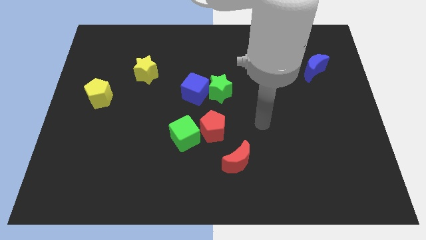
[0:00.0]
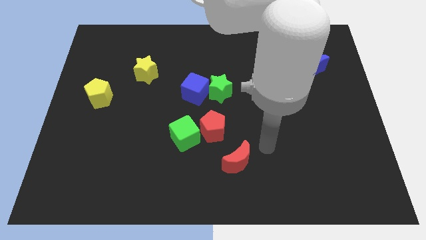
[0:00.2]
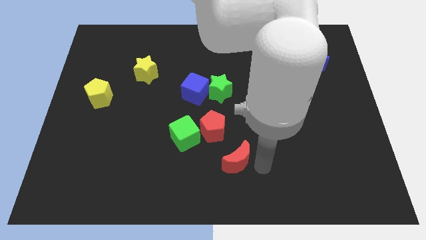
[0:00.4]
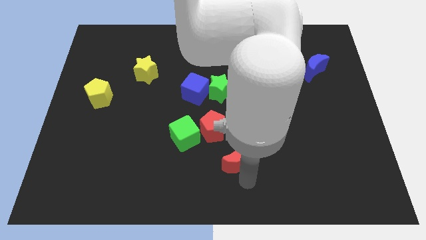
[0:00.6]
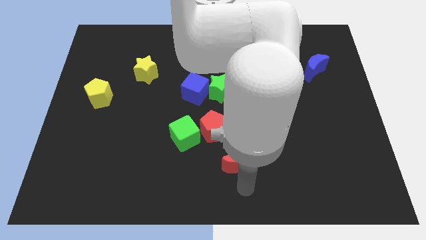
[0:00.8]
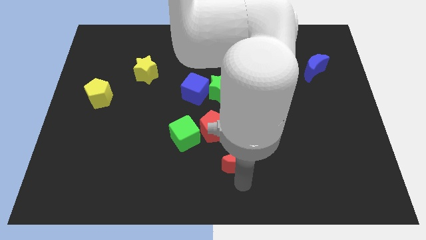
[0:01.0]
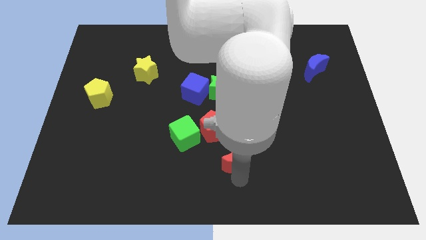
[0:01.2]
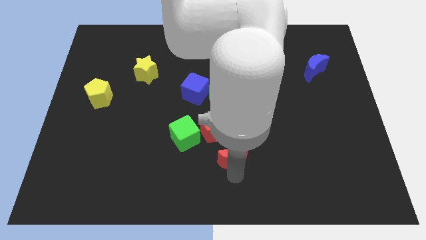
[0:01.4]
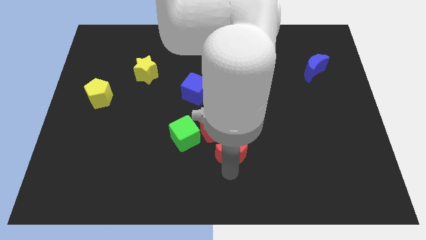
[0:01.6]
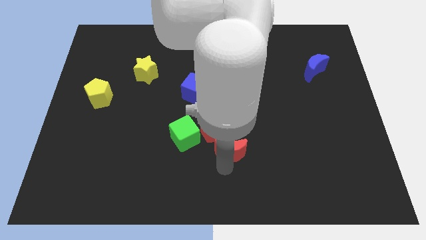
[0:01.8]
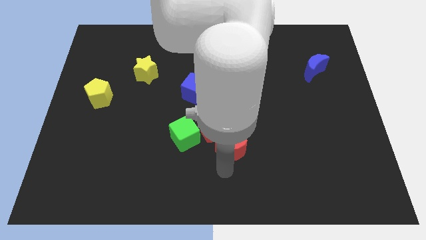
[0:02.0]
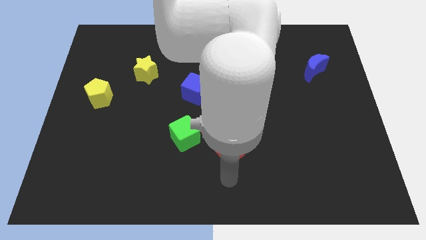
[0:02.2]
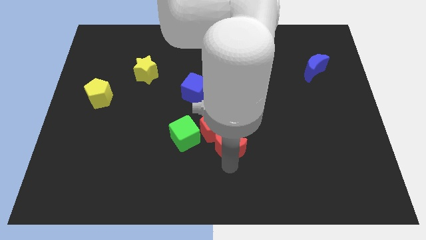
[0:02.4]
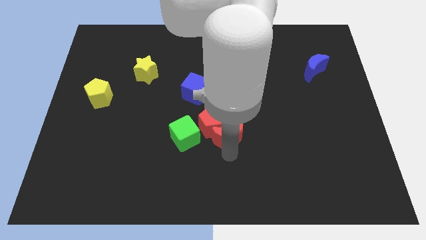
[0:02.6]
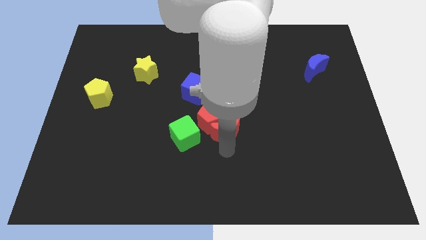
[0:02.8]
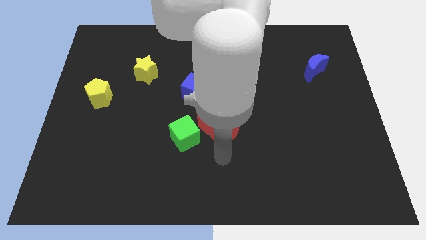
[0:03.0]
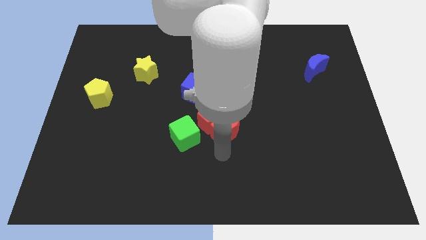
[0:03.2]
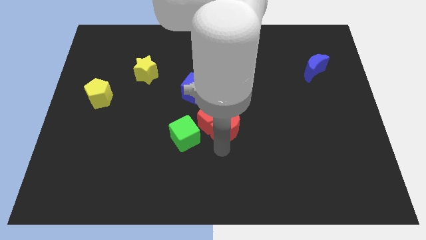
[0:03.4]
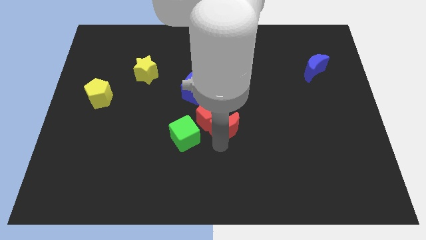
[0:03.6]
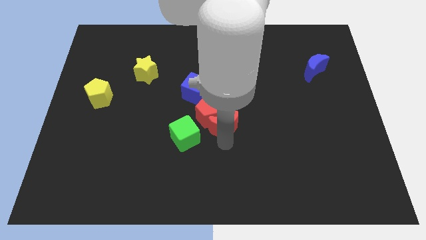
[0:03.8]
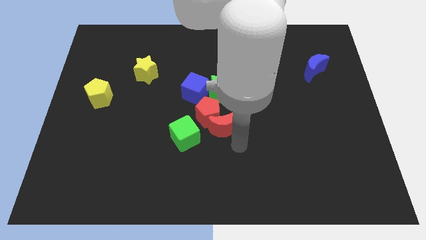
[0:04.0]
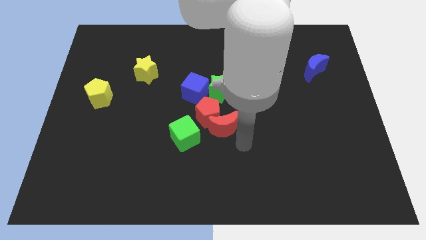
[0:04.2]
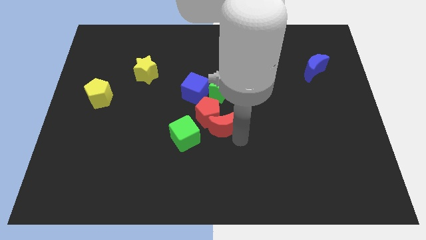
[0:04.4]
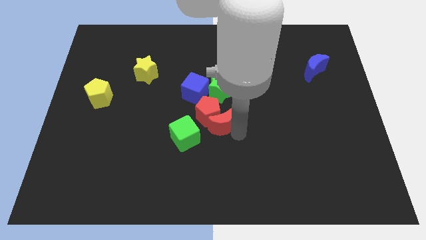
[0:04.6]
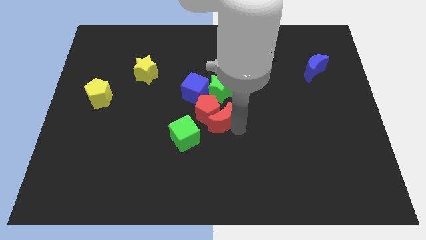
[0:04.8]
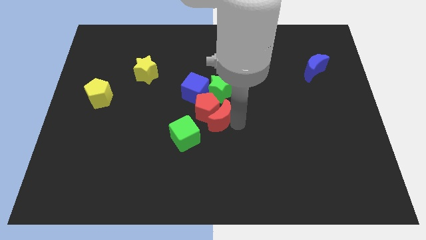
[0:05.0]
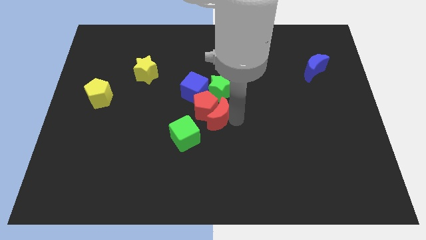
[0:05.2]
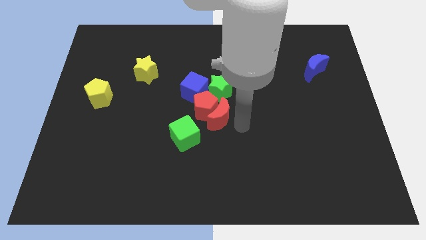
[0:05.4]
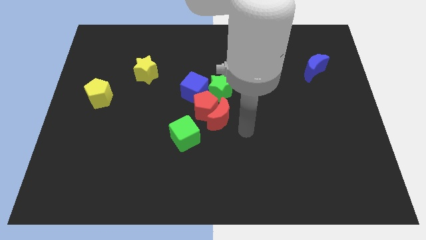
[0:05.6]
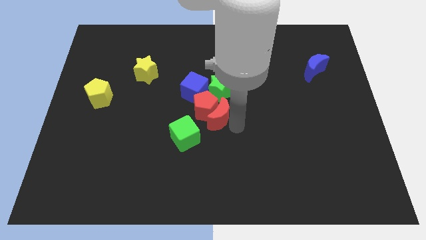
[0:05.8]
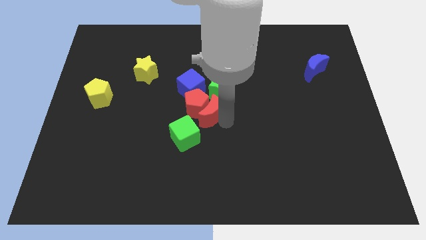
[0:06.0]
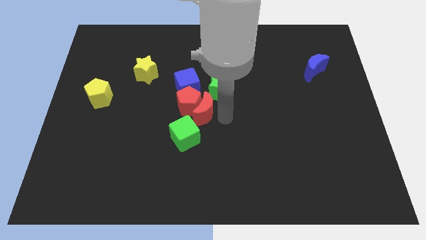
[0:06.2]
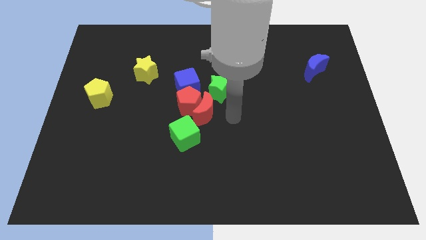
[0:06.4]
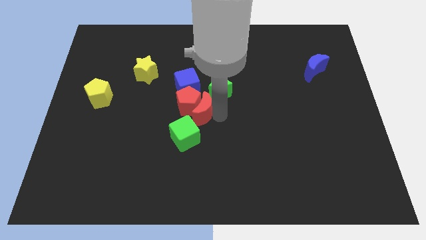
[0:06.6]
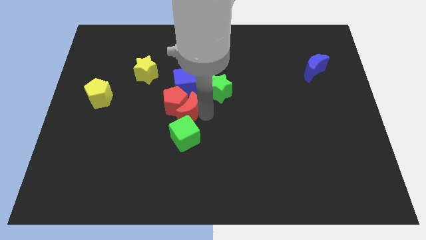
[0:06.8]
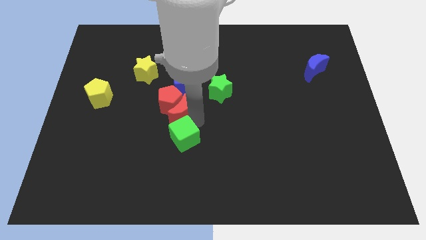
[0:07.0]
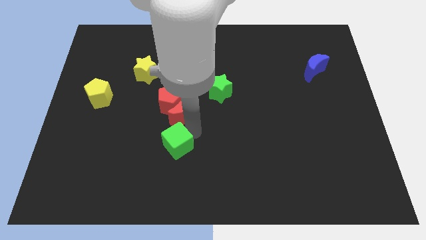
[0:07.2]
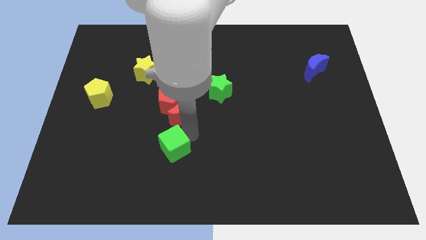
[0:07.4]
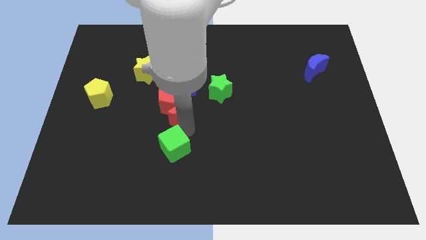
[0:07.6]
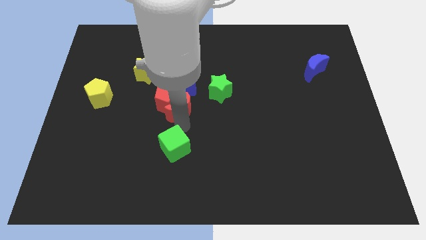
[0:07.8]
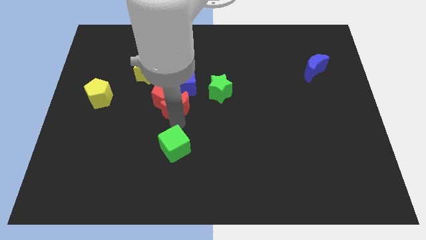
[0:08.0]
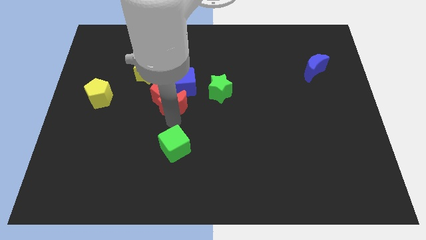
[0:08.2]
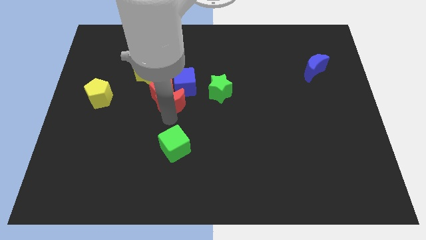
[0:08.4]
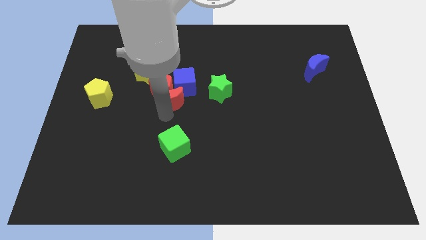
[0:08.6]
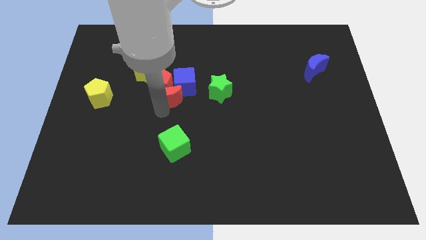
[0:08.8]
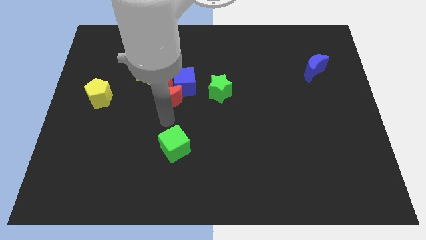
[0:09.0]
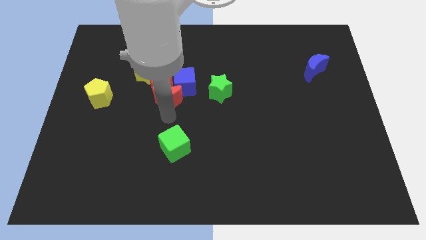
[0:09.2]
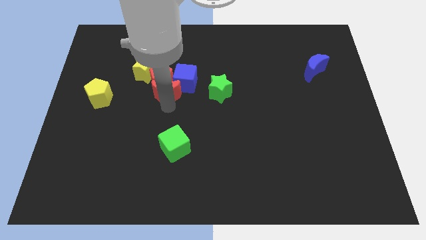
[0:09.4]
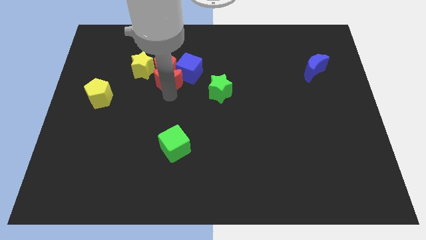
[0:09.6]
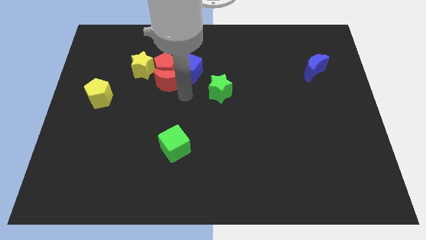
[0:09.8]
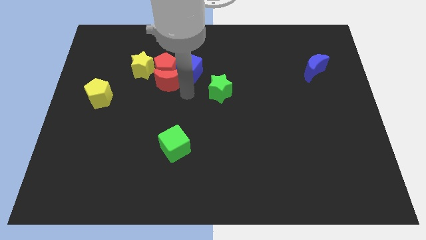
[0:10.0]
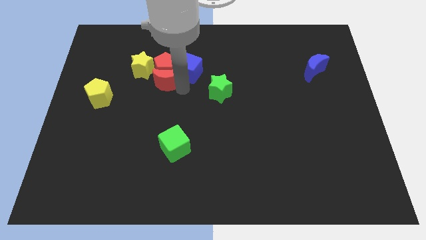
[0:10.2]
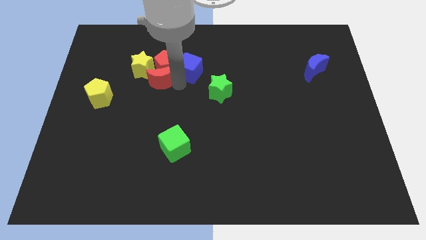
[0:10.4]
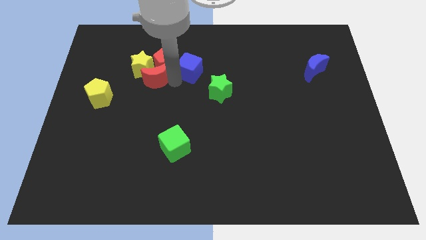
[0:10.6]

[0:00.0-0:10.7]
put the red moon to the yellow star

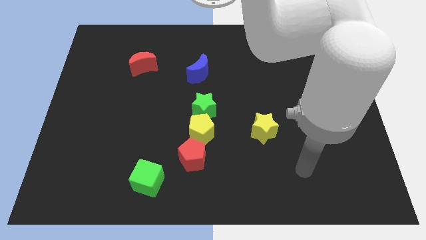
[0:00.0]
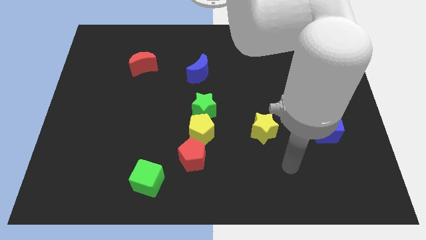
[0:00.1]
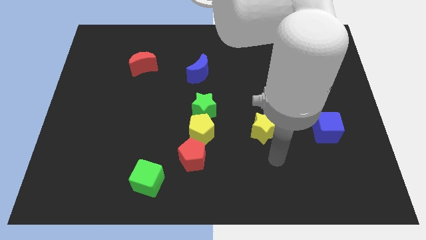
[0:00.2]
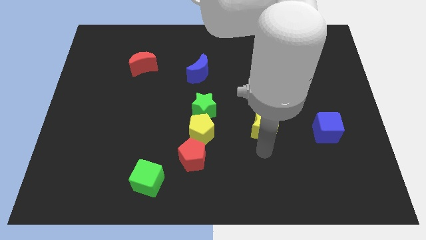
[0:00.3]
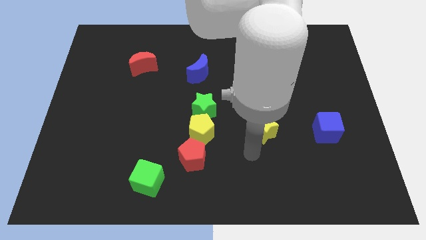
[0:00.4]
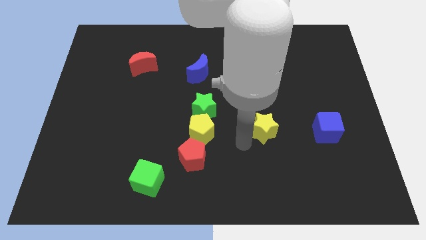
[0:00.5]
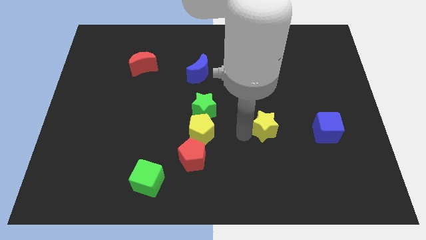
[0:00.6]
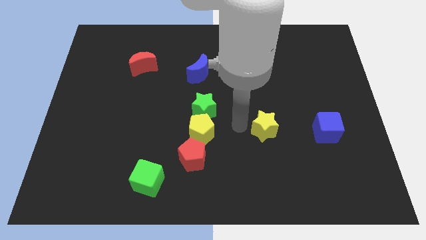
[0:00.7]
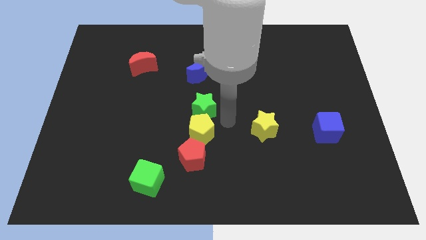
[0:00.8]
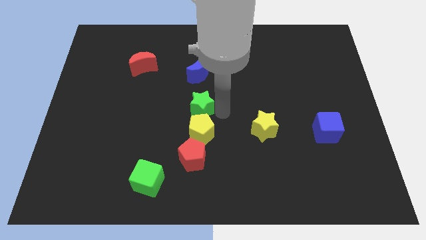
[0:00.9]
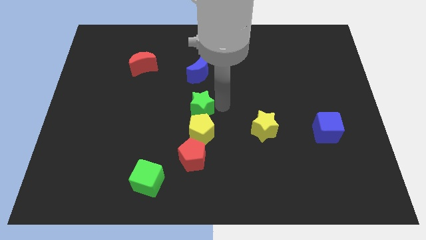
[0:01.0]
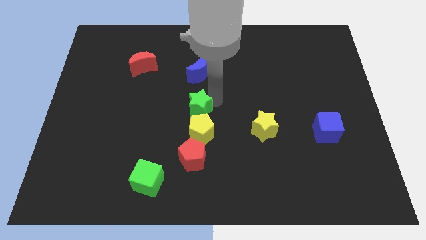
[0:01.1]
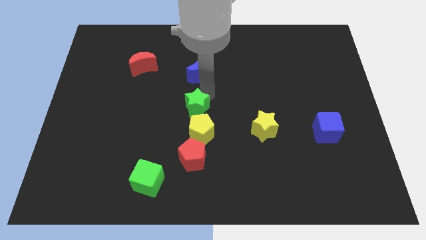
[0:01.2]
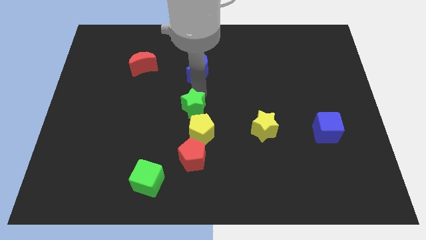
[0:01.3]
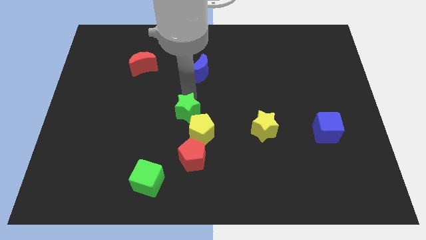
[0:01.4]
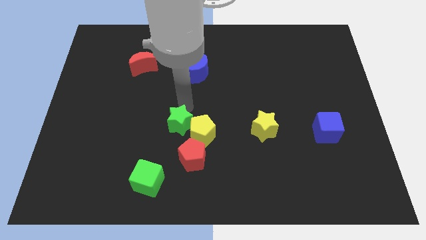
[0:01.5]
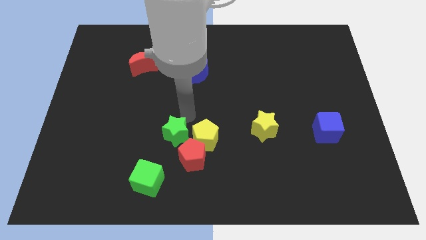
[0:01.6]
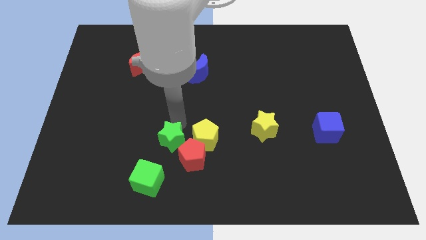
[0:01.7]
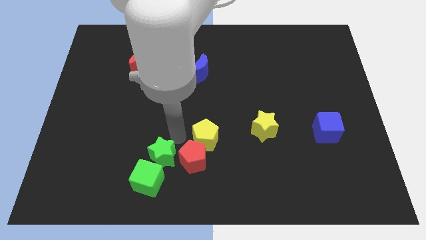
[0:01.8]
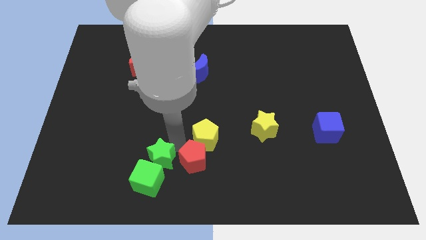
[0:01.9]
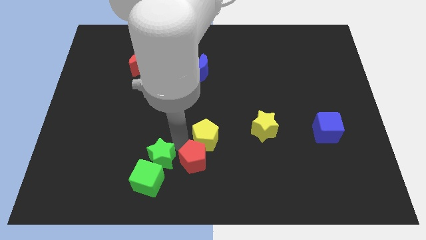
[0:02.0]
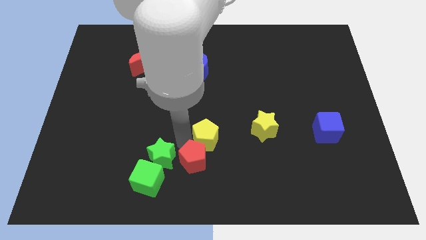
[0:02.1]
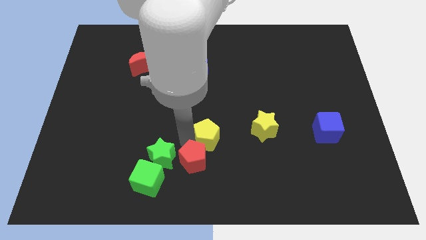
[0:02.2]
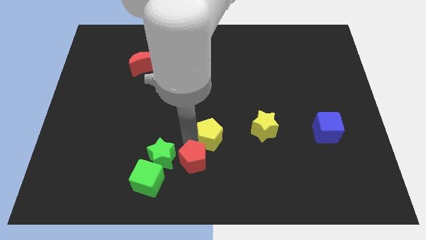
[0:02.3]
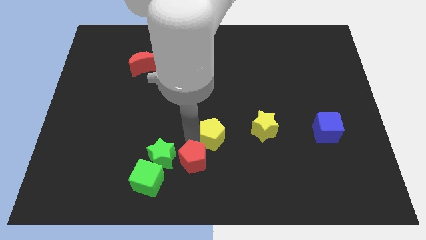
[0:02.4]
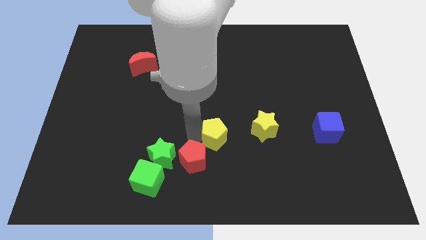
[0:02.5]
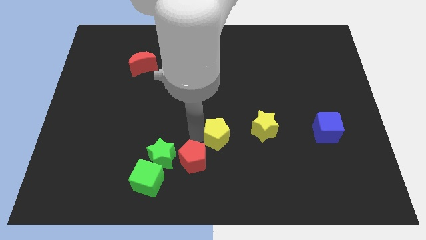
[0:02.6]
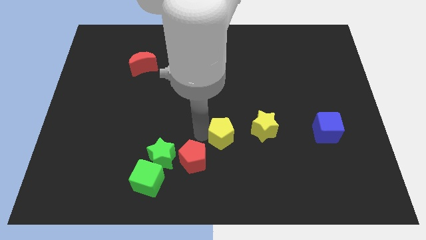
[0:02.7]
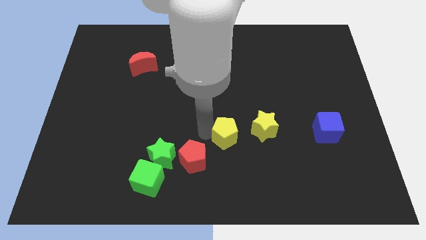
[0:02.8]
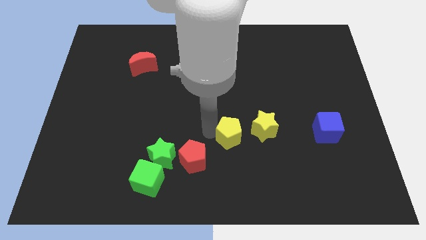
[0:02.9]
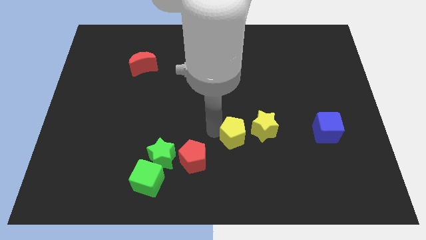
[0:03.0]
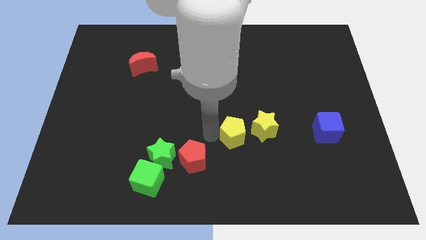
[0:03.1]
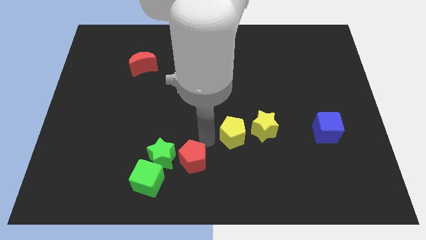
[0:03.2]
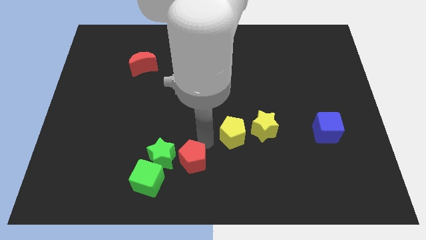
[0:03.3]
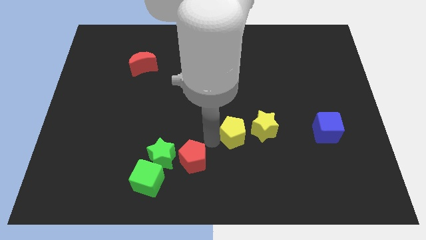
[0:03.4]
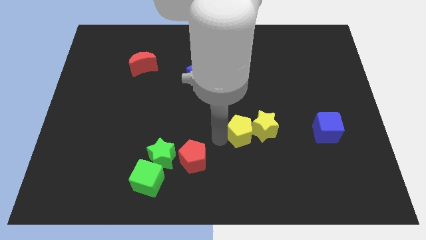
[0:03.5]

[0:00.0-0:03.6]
slide the yellow pentagon to the yellow star
